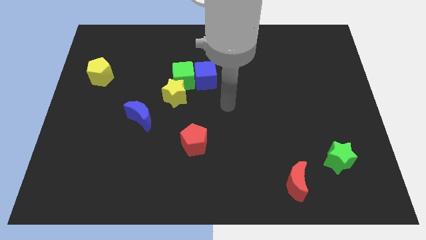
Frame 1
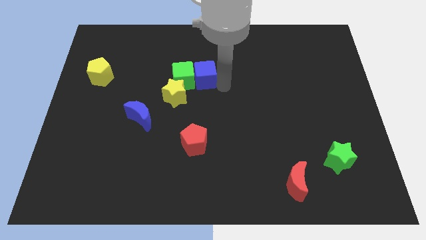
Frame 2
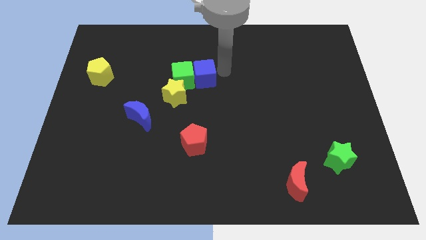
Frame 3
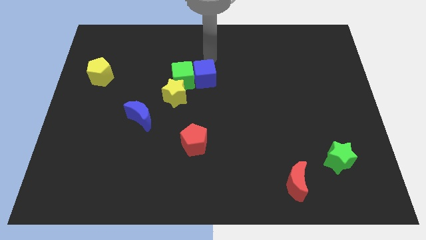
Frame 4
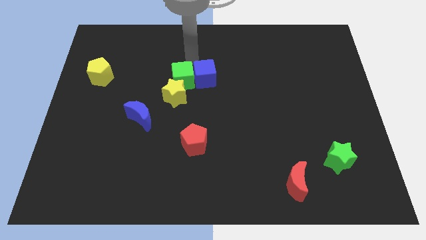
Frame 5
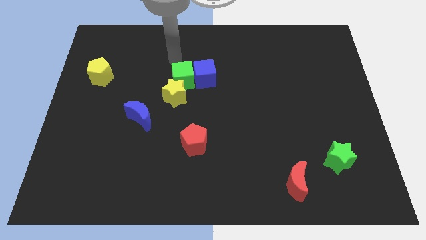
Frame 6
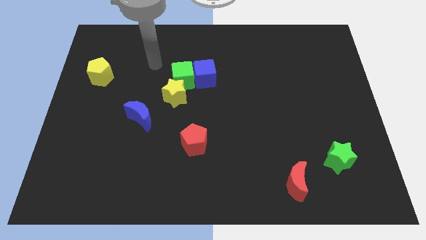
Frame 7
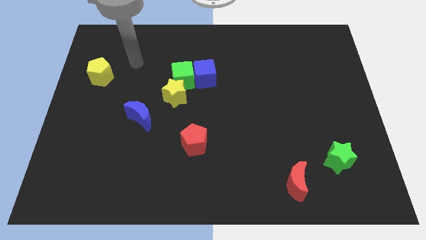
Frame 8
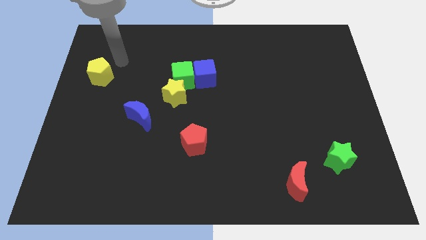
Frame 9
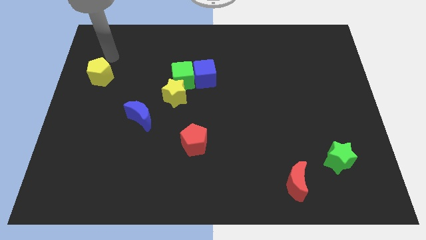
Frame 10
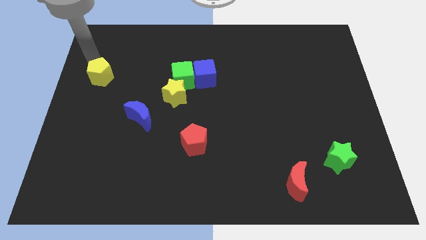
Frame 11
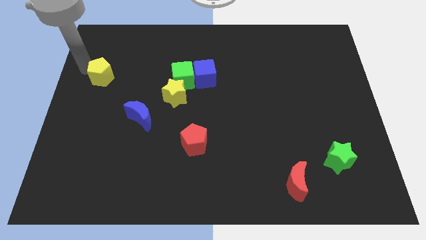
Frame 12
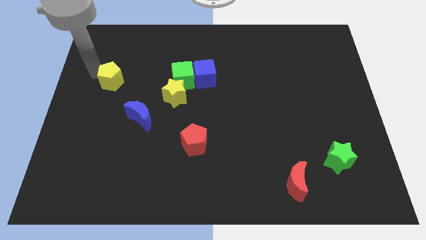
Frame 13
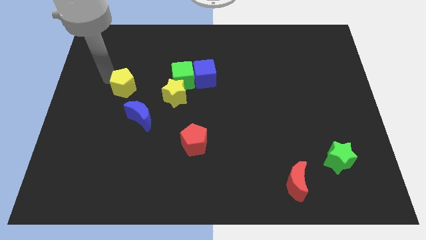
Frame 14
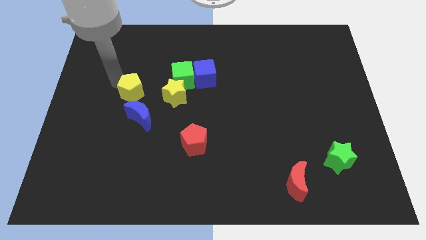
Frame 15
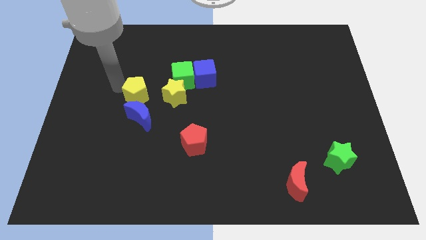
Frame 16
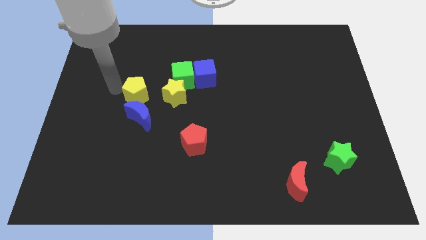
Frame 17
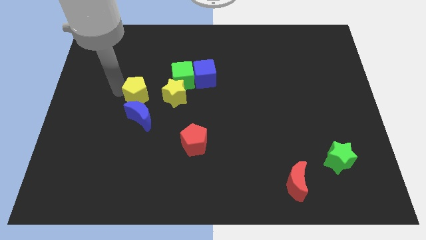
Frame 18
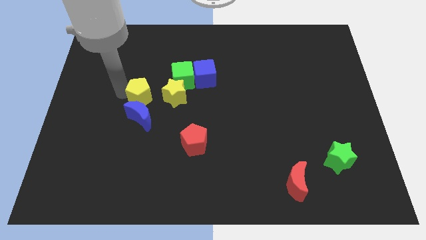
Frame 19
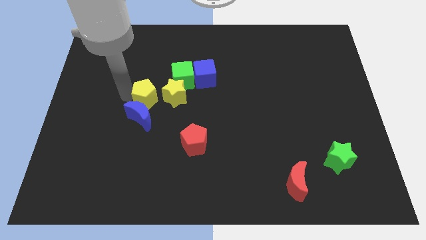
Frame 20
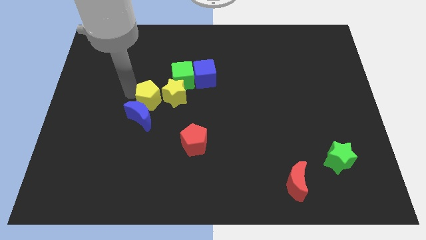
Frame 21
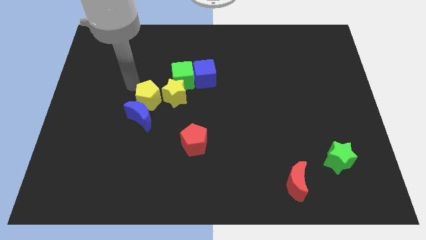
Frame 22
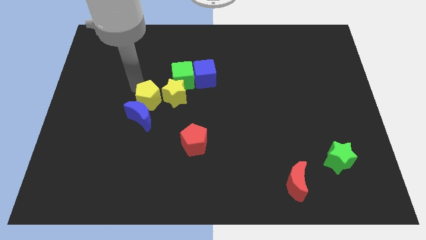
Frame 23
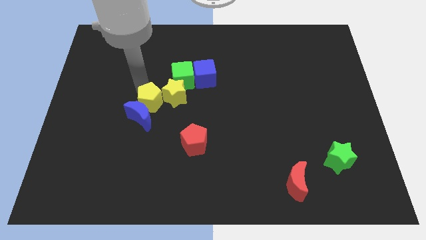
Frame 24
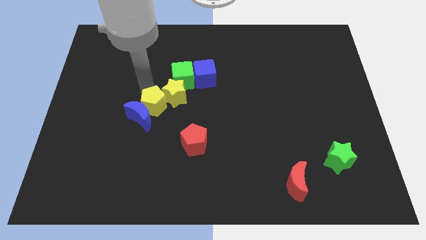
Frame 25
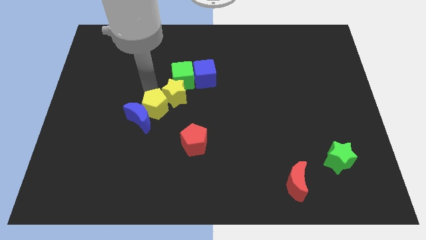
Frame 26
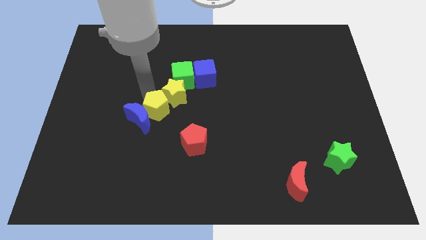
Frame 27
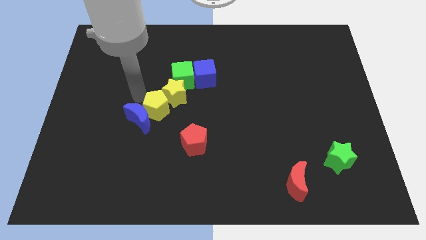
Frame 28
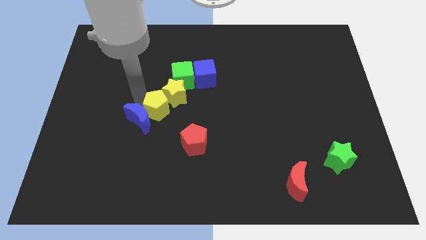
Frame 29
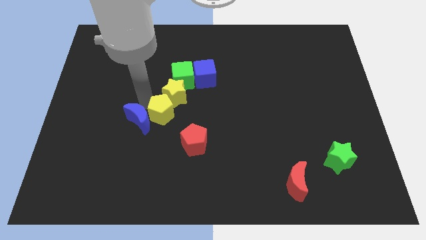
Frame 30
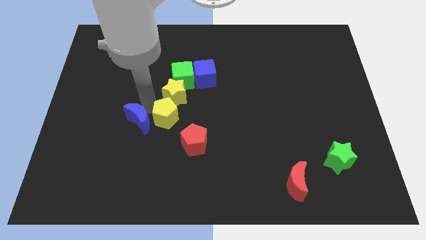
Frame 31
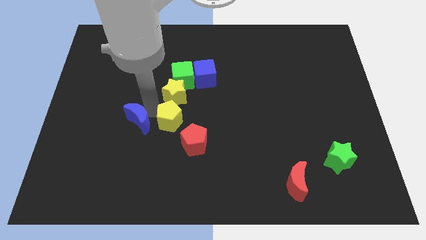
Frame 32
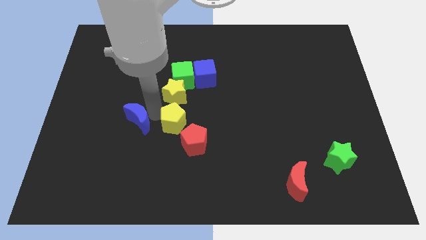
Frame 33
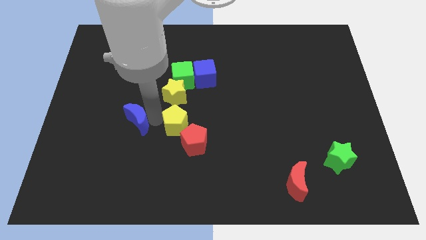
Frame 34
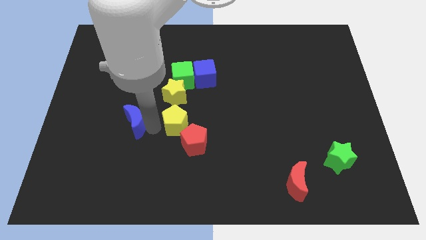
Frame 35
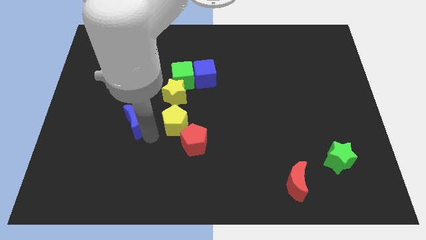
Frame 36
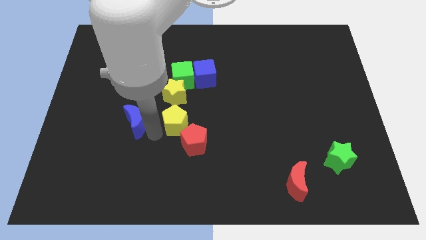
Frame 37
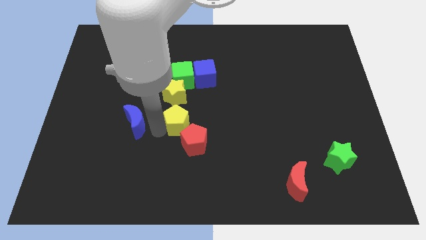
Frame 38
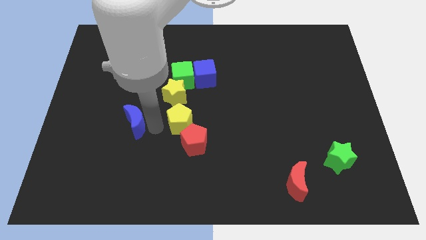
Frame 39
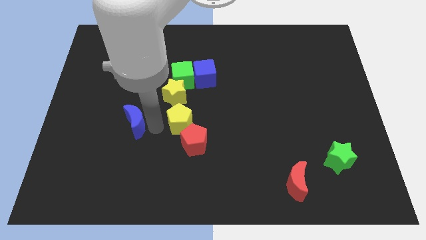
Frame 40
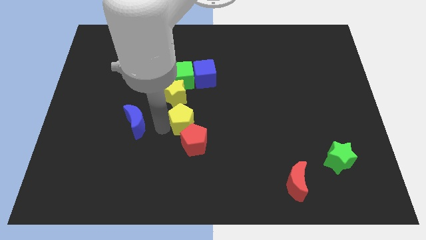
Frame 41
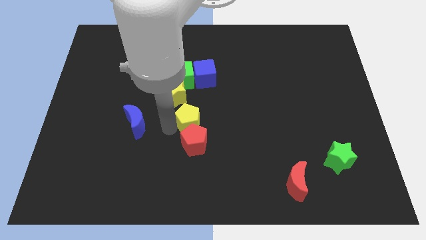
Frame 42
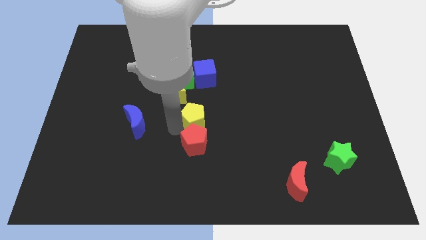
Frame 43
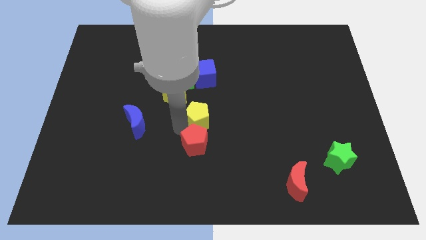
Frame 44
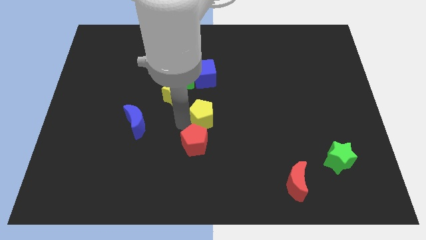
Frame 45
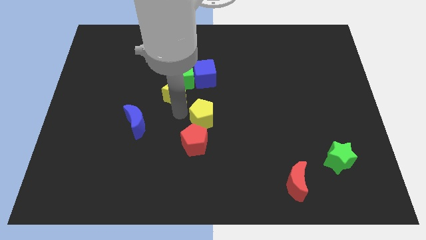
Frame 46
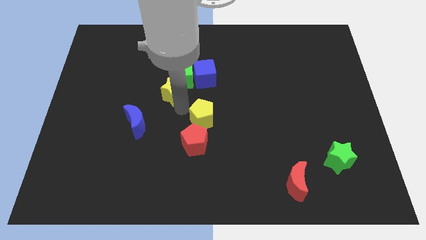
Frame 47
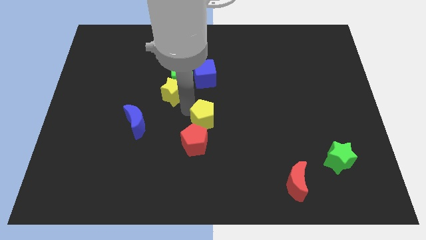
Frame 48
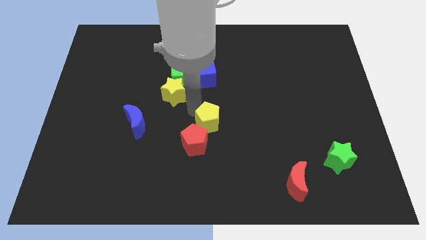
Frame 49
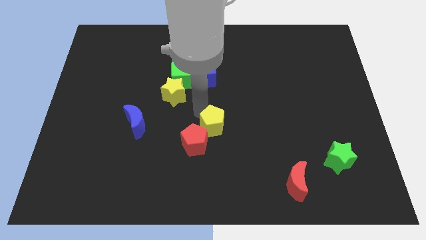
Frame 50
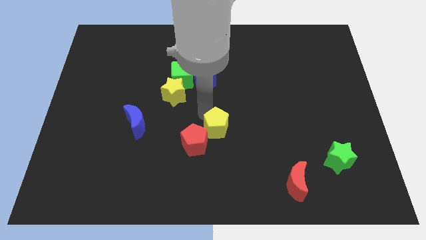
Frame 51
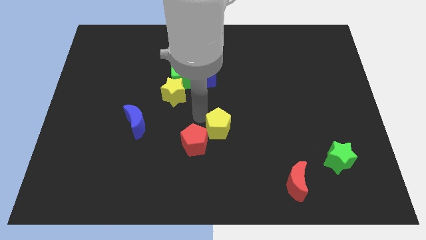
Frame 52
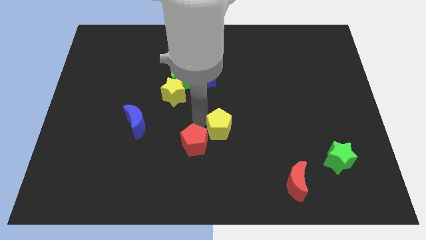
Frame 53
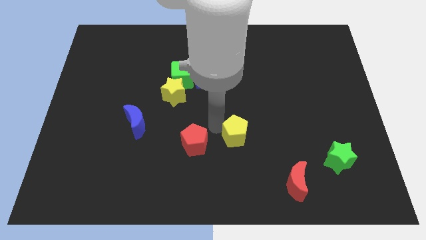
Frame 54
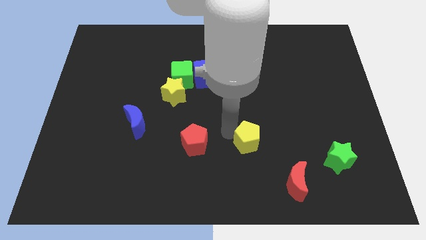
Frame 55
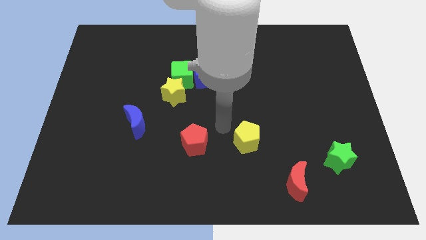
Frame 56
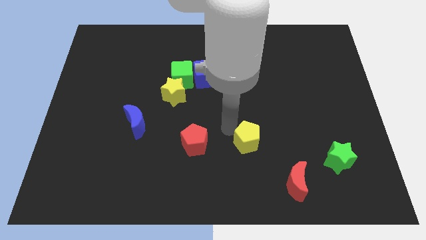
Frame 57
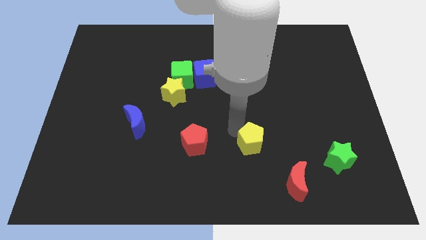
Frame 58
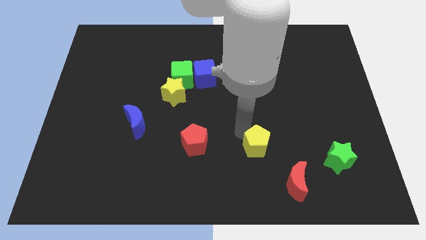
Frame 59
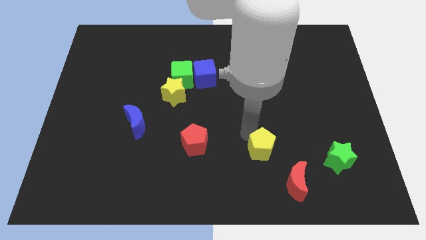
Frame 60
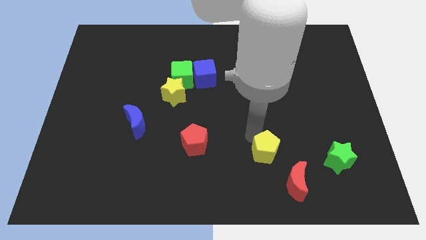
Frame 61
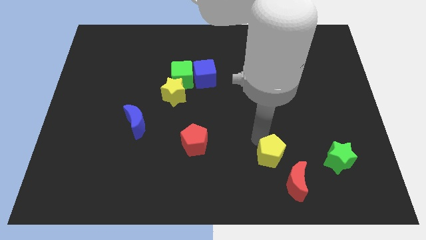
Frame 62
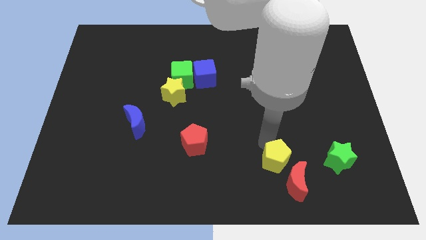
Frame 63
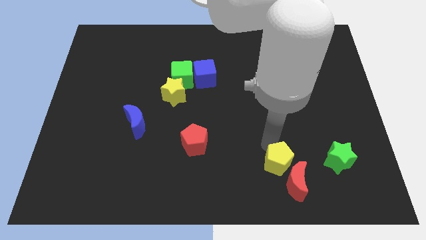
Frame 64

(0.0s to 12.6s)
slide the yellow pentagon towards the red moon
